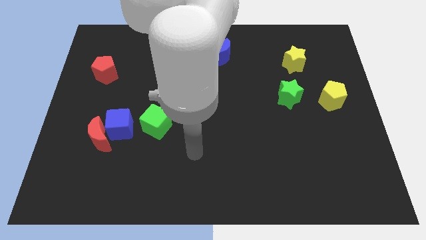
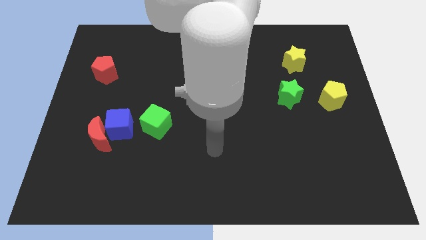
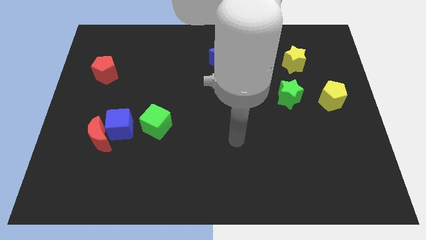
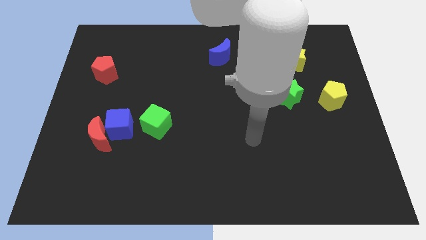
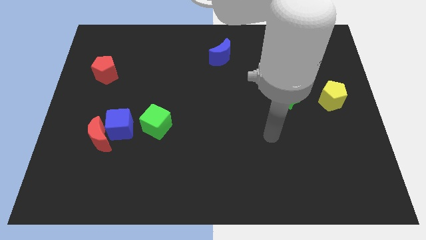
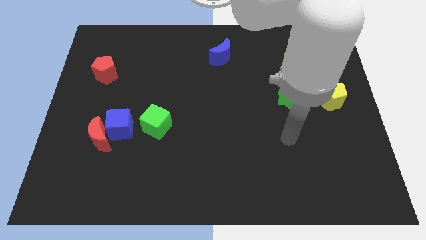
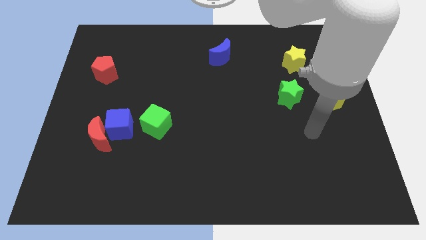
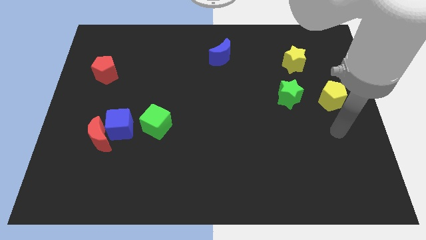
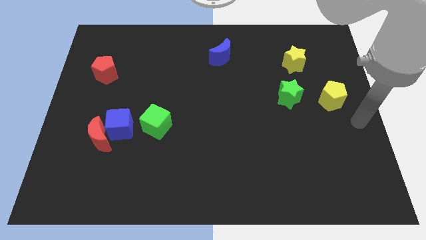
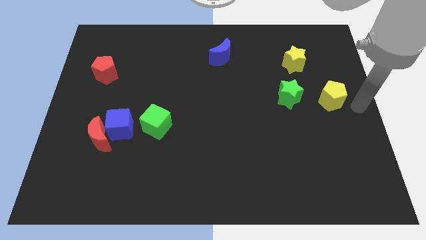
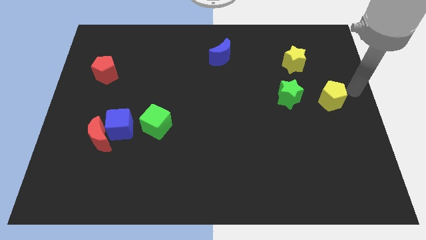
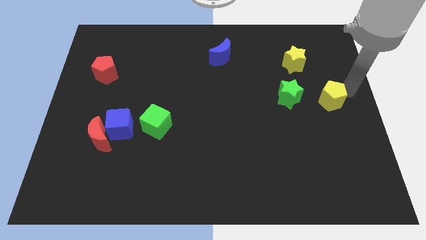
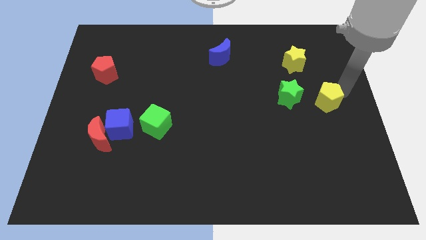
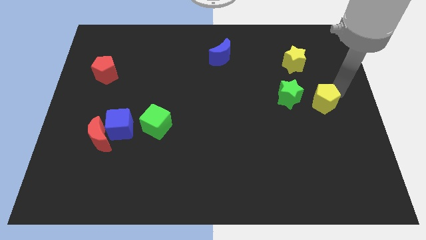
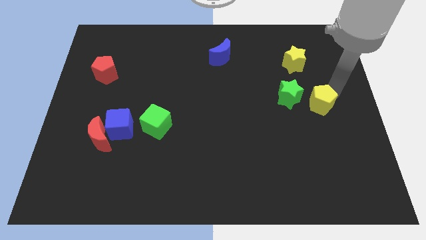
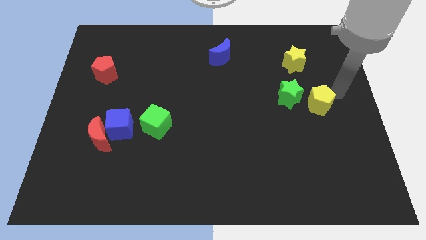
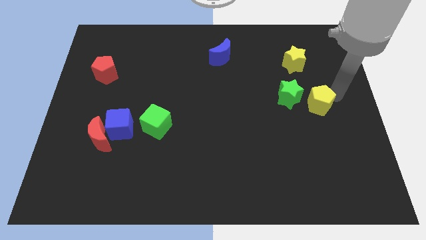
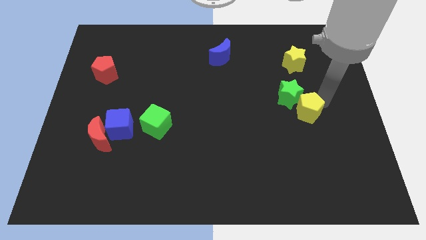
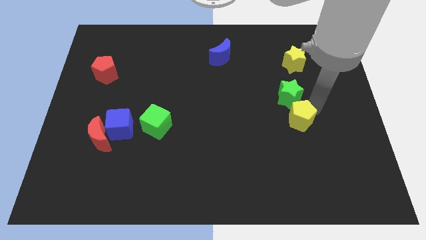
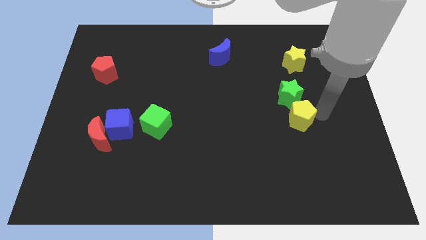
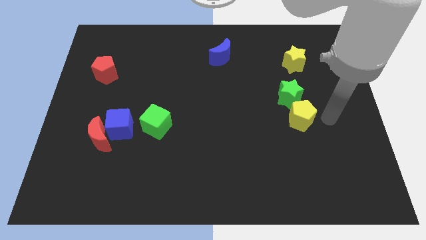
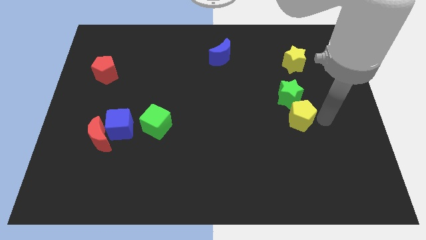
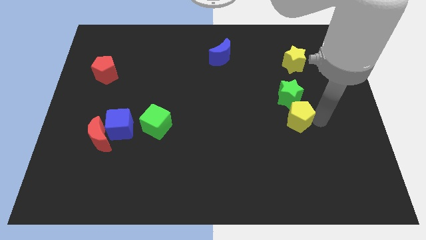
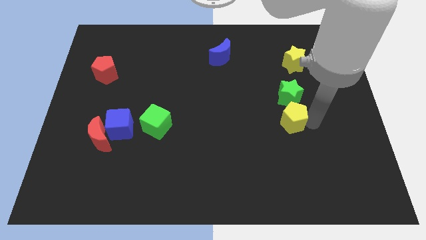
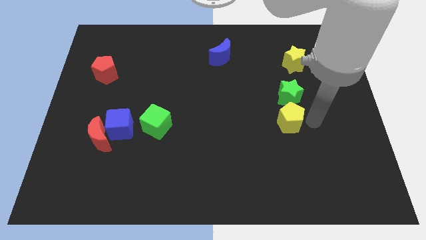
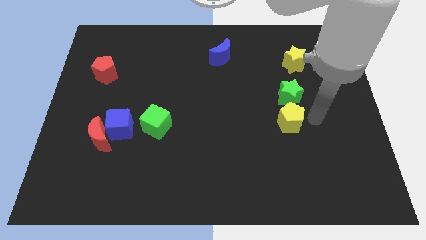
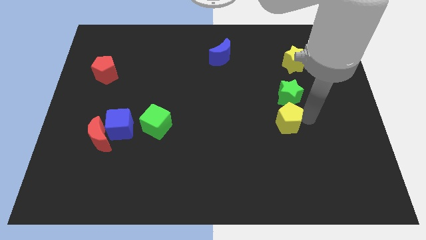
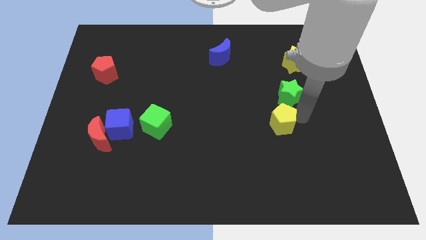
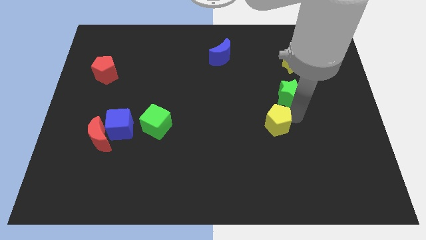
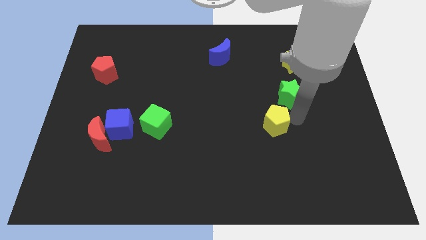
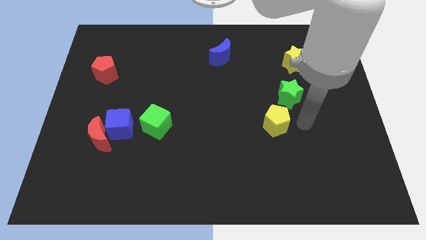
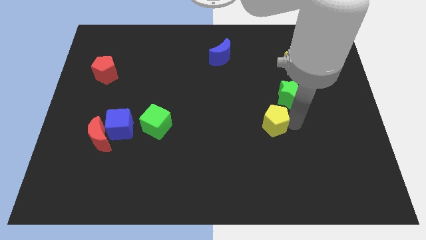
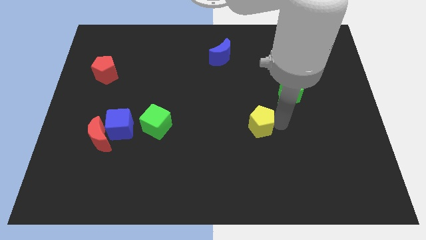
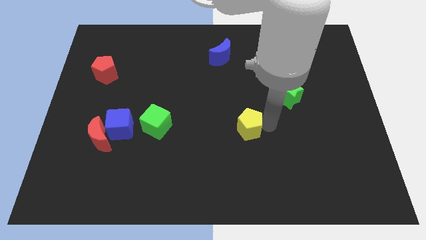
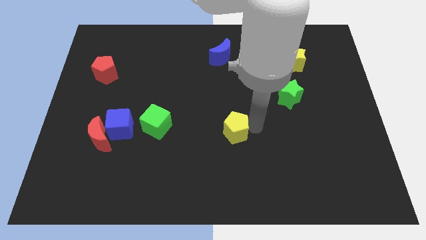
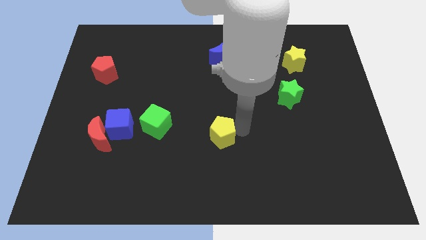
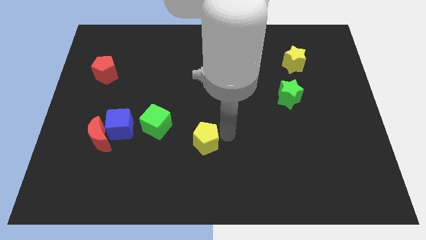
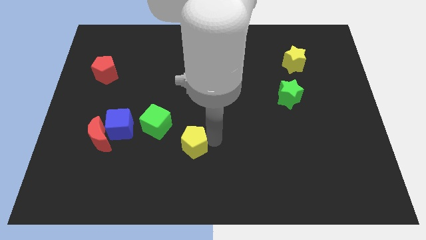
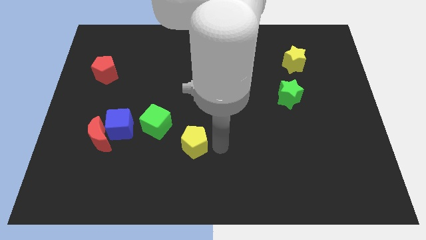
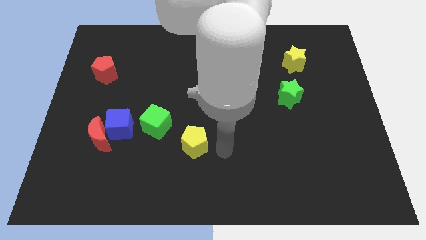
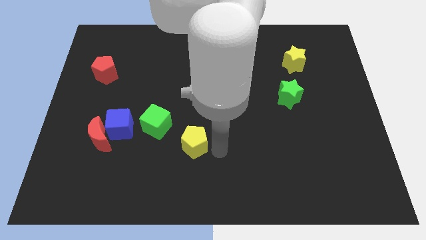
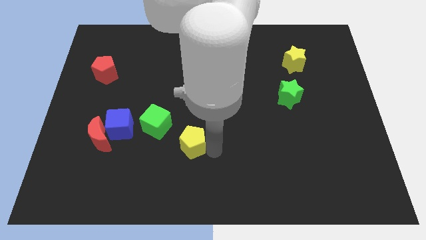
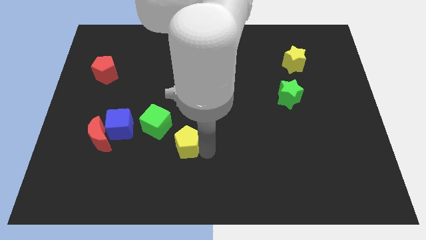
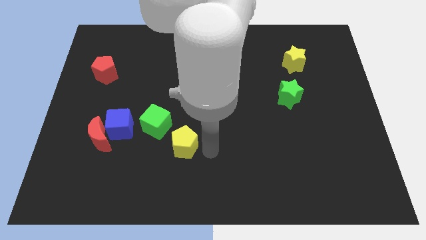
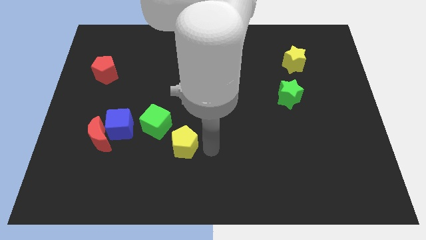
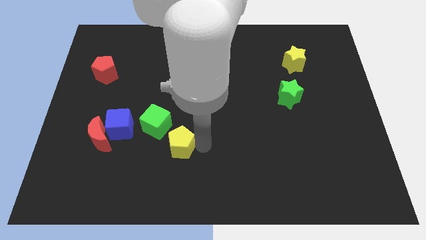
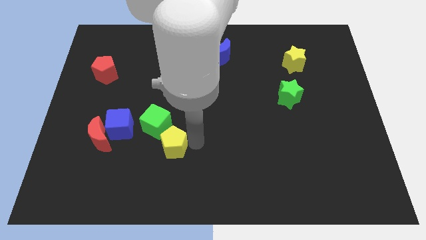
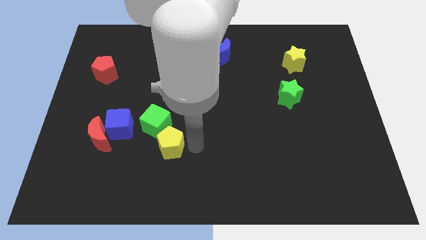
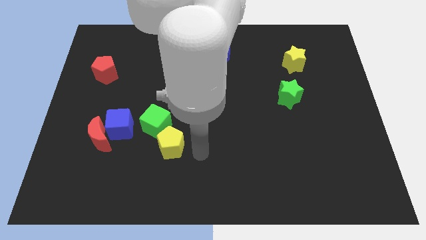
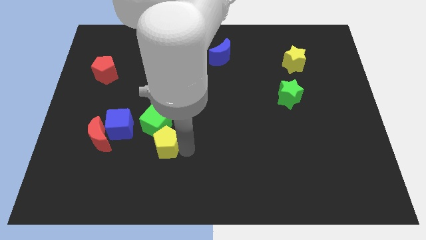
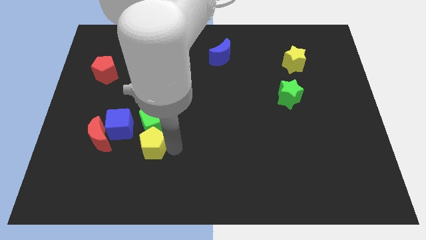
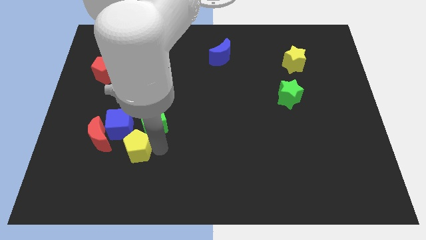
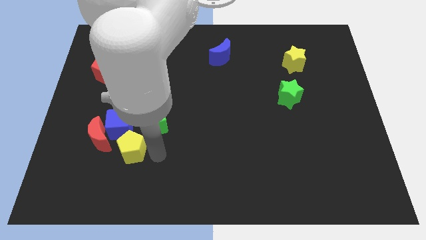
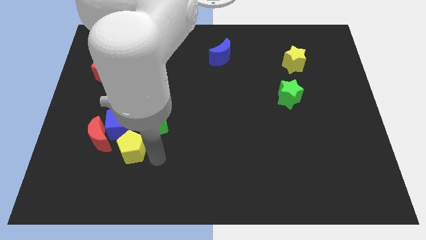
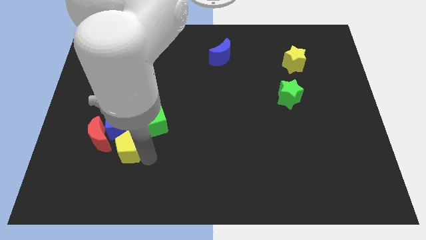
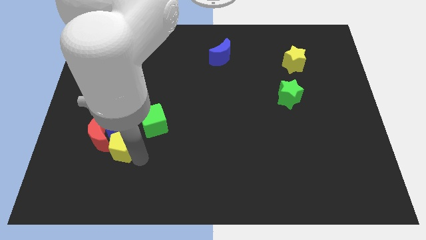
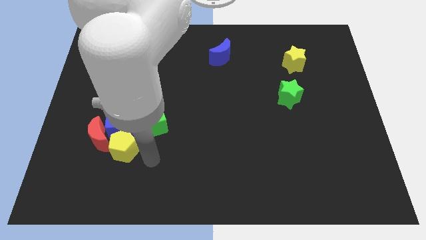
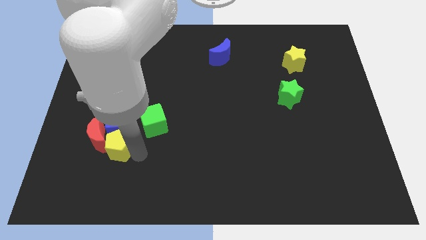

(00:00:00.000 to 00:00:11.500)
move the yellow pentagon towards the red moon

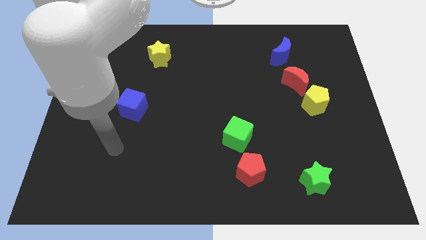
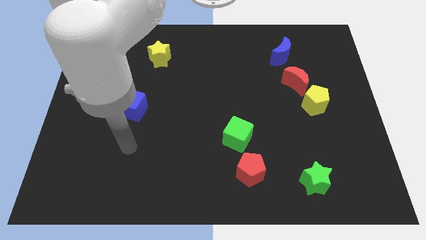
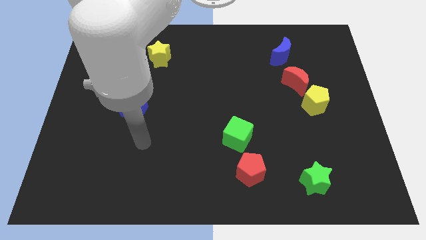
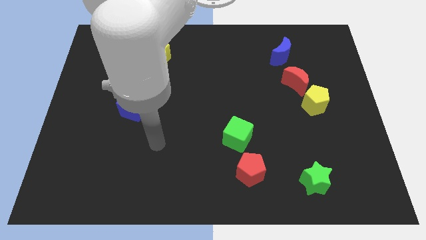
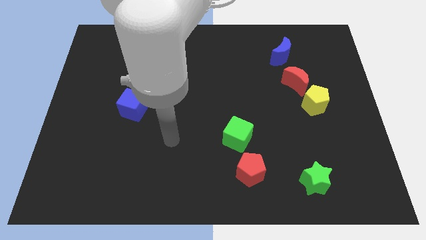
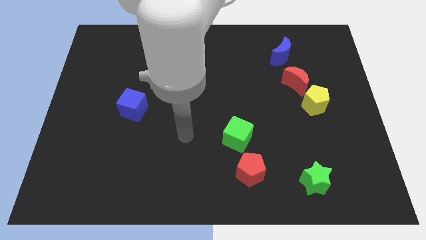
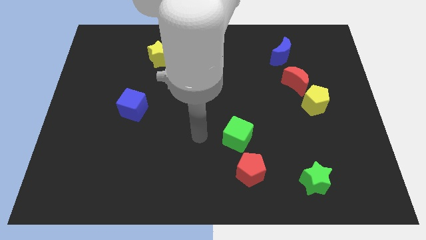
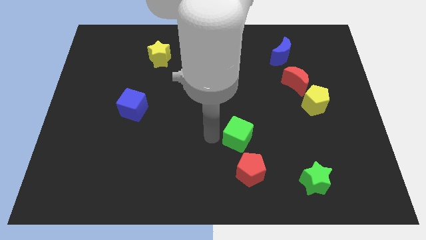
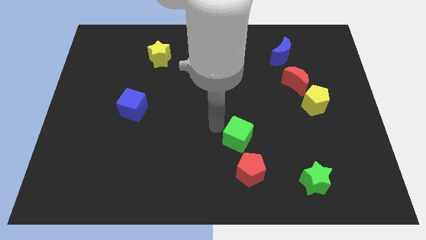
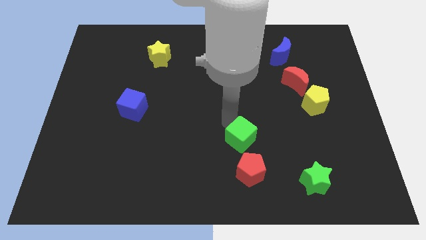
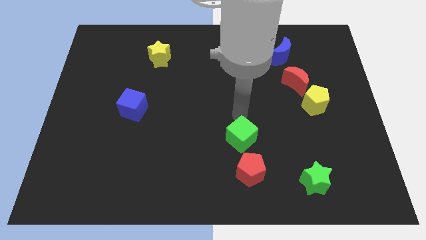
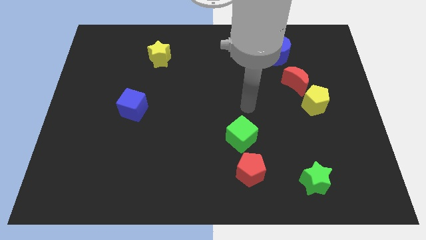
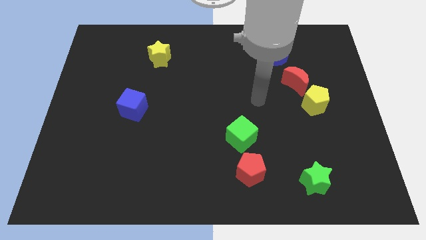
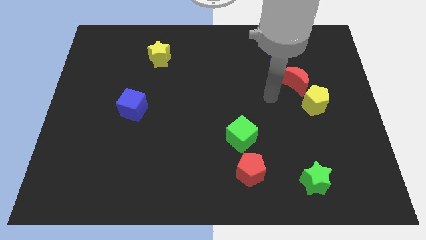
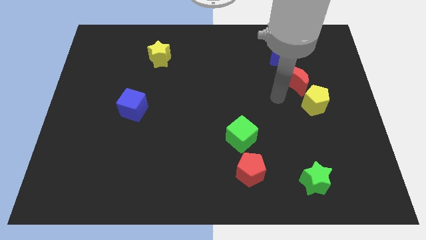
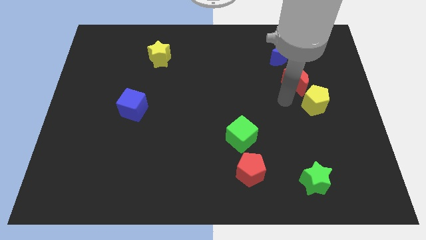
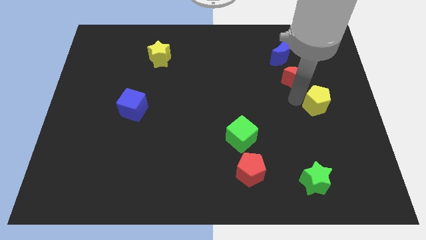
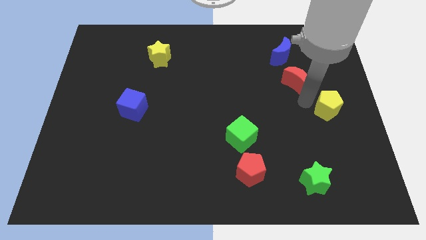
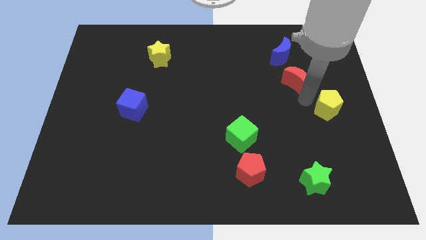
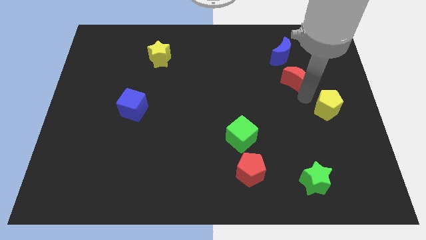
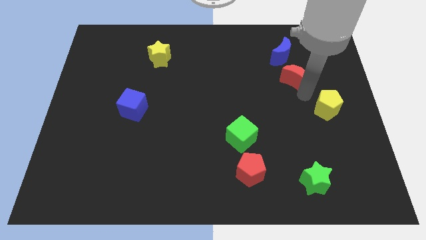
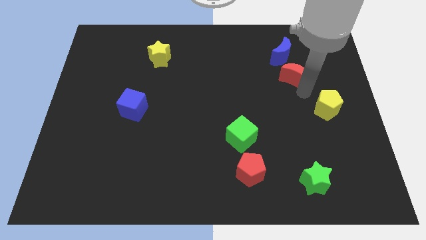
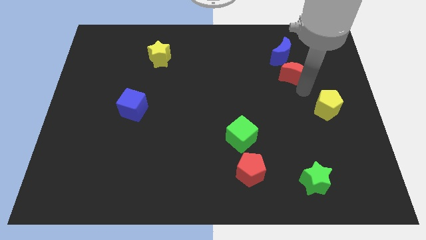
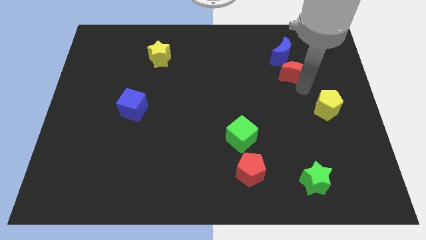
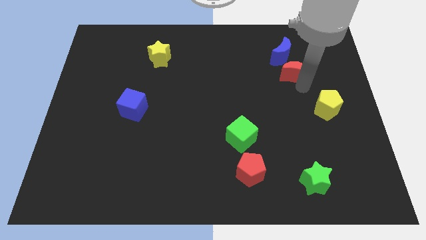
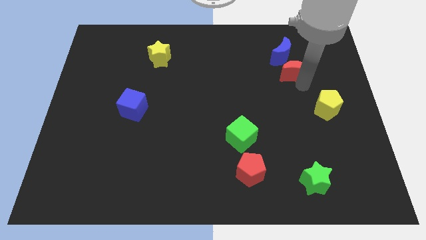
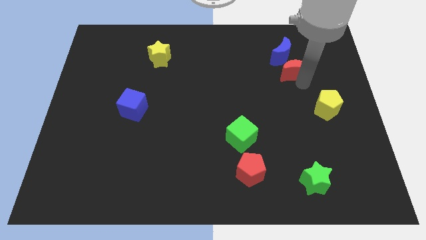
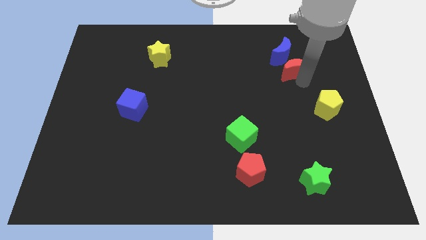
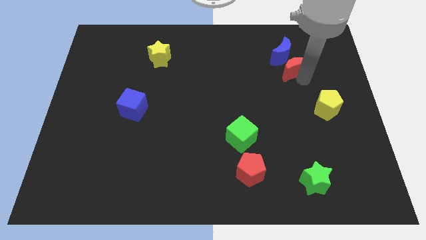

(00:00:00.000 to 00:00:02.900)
push the red moon close to the blue moon
